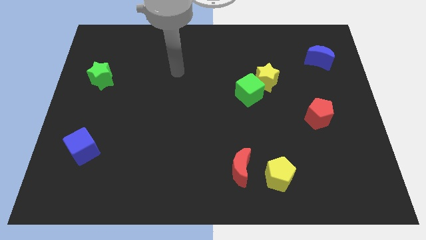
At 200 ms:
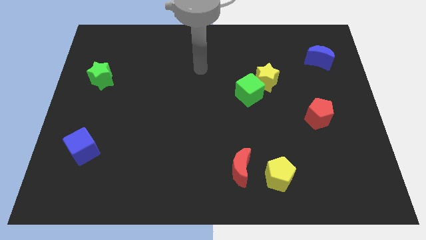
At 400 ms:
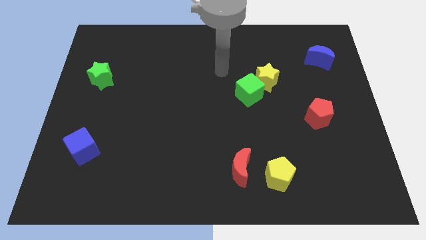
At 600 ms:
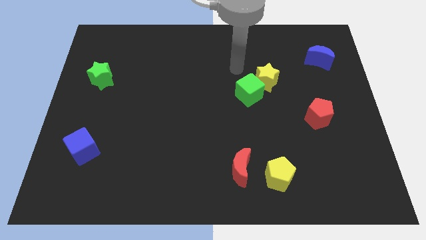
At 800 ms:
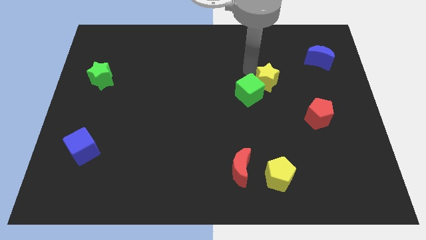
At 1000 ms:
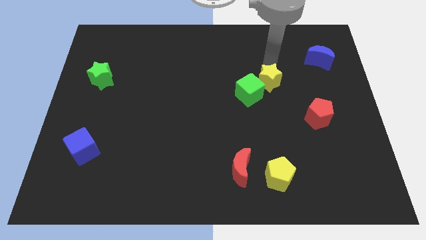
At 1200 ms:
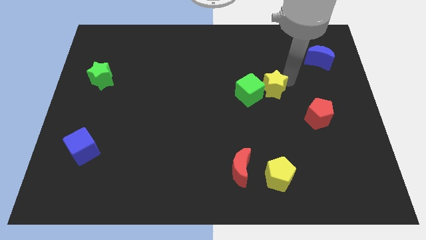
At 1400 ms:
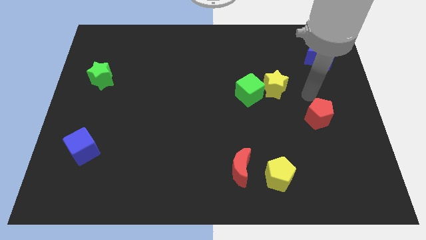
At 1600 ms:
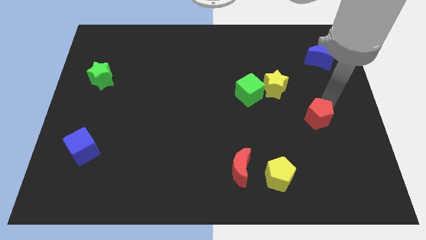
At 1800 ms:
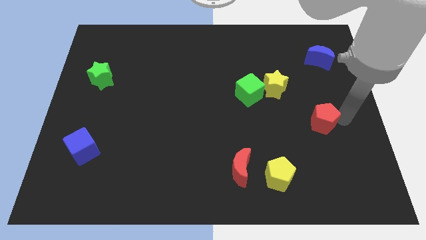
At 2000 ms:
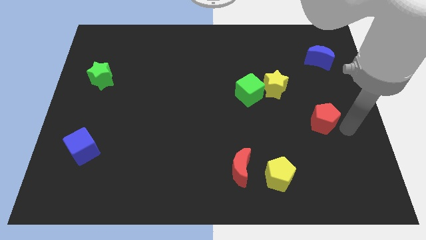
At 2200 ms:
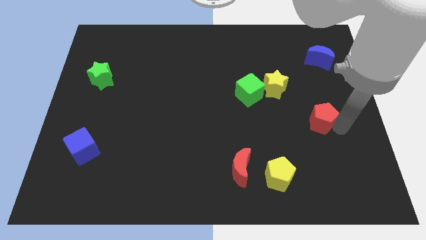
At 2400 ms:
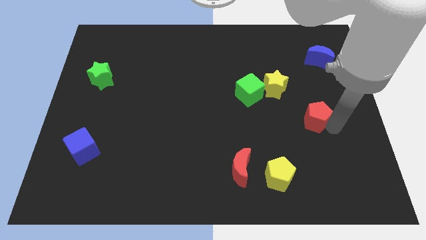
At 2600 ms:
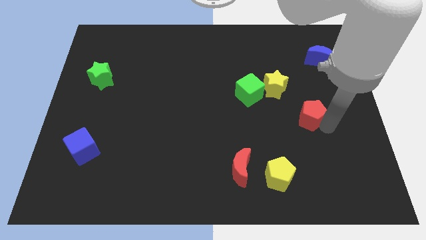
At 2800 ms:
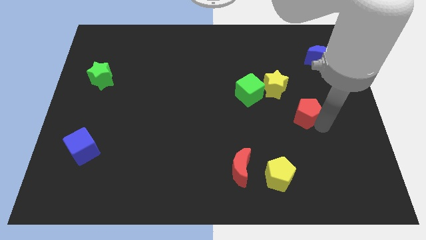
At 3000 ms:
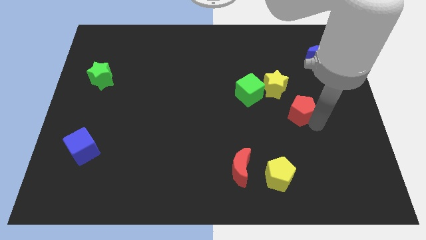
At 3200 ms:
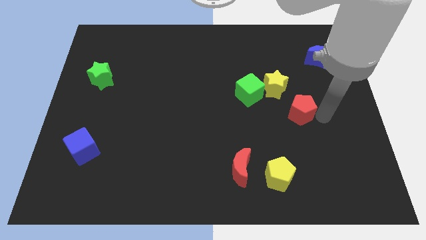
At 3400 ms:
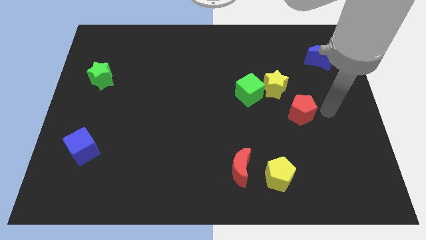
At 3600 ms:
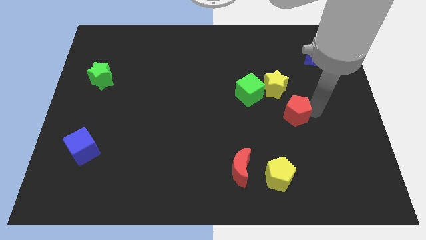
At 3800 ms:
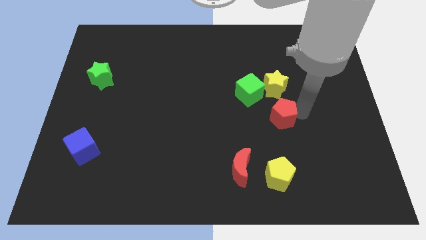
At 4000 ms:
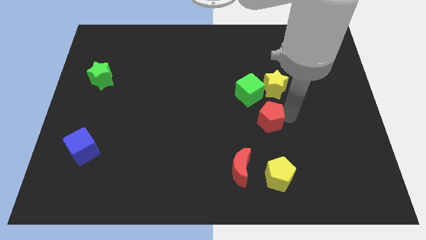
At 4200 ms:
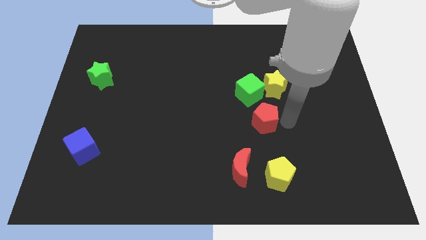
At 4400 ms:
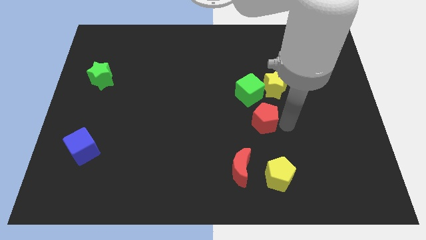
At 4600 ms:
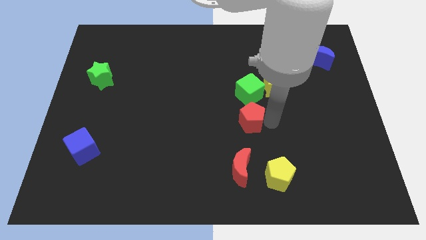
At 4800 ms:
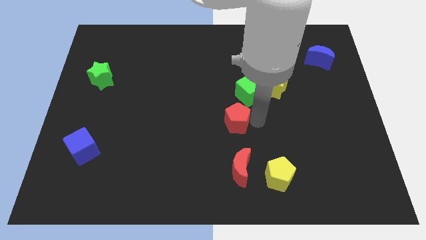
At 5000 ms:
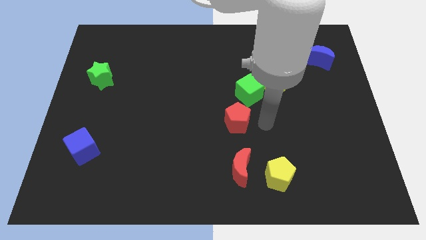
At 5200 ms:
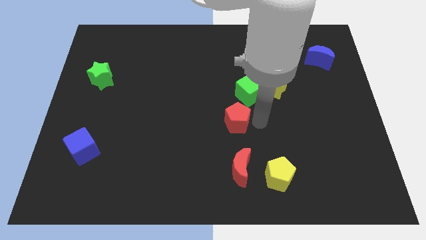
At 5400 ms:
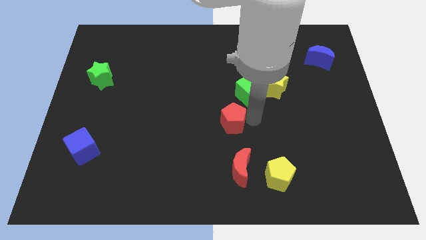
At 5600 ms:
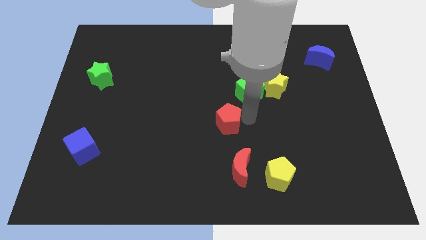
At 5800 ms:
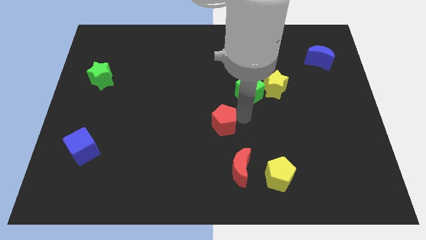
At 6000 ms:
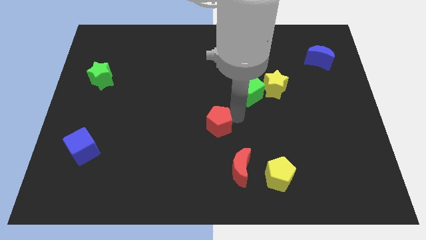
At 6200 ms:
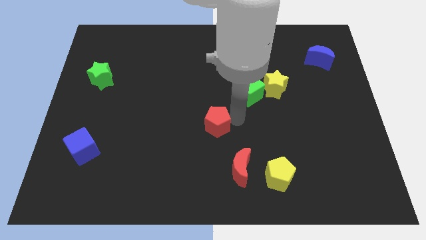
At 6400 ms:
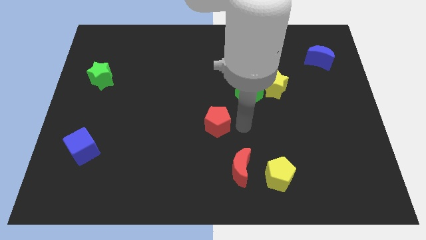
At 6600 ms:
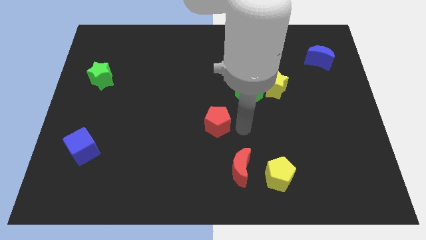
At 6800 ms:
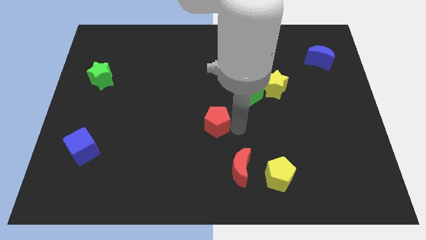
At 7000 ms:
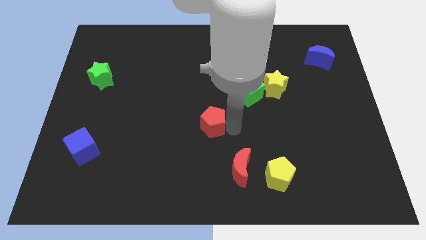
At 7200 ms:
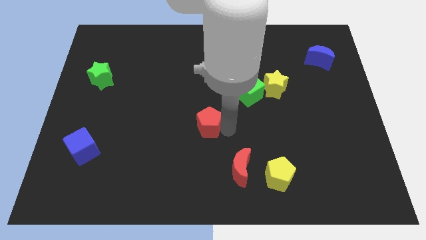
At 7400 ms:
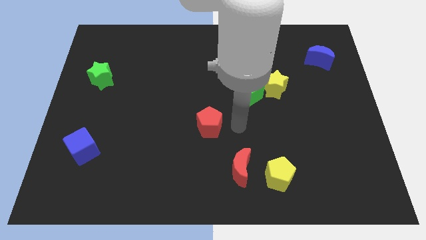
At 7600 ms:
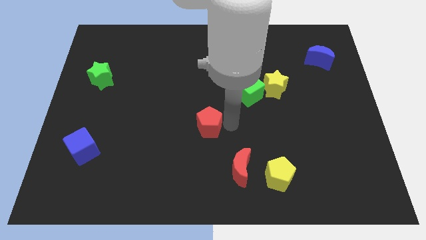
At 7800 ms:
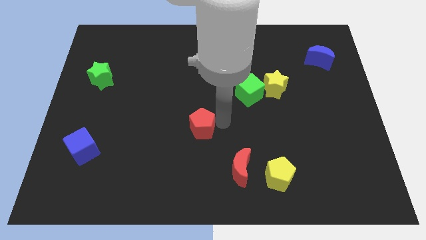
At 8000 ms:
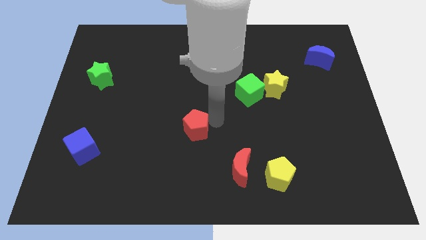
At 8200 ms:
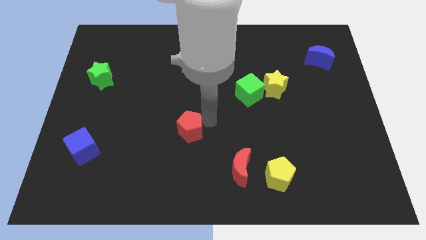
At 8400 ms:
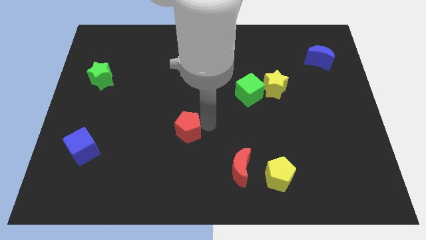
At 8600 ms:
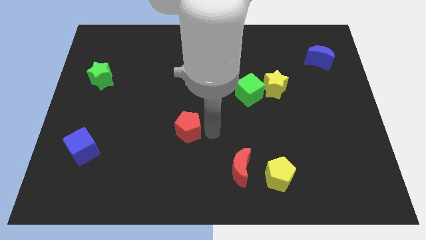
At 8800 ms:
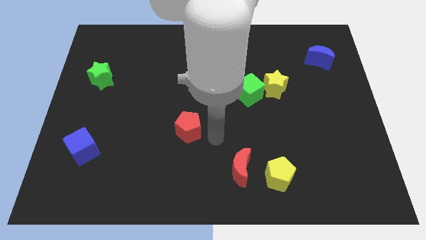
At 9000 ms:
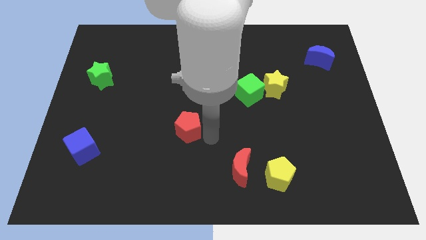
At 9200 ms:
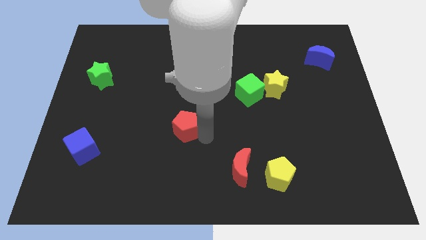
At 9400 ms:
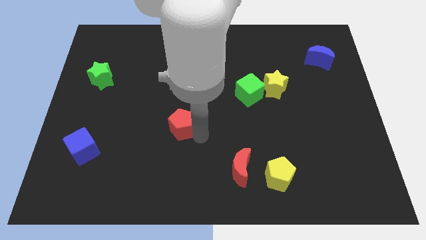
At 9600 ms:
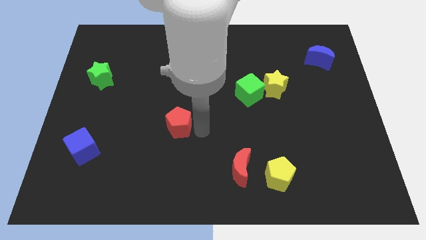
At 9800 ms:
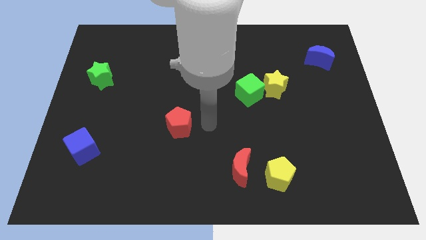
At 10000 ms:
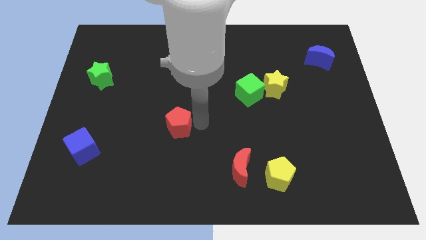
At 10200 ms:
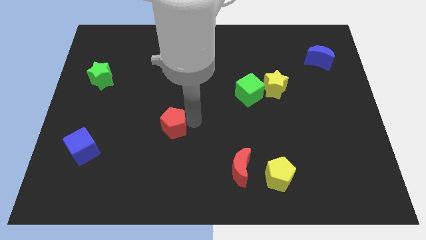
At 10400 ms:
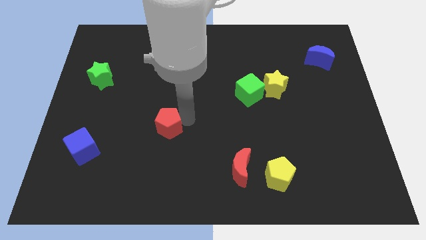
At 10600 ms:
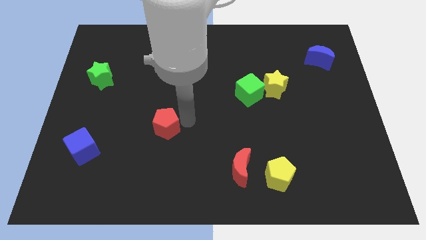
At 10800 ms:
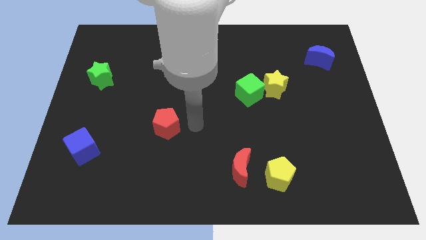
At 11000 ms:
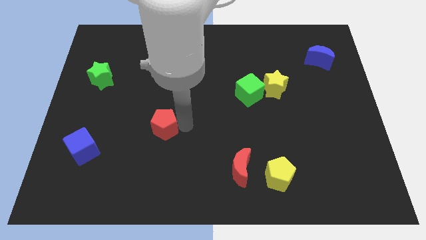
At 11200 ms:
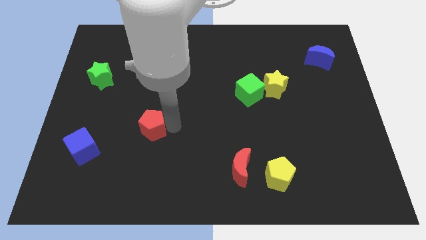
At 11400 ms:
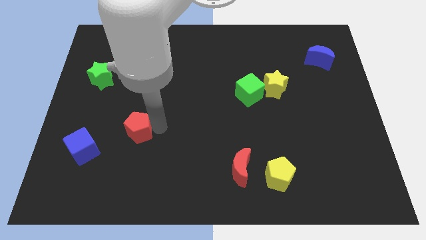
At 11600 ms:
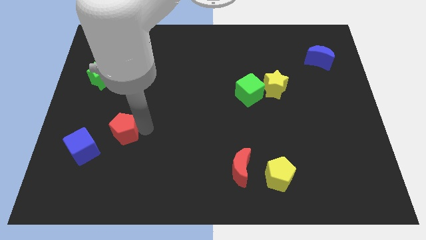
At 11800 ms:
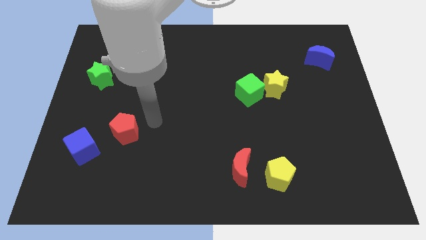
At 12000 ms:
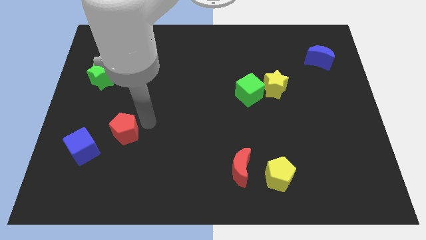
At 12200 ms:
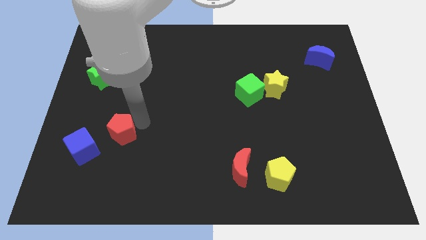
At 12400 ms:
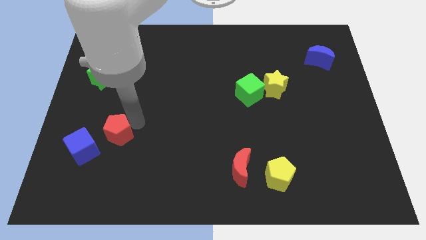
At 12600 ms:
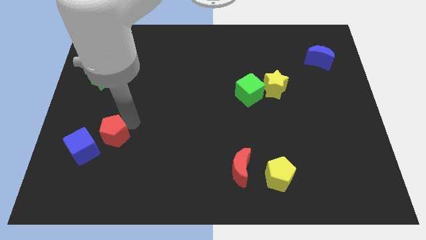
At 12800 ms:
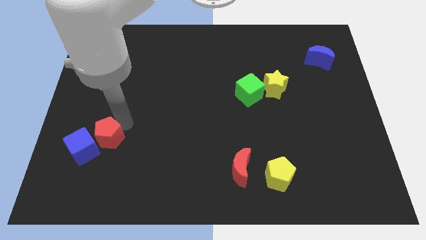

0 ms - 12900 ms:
push the red pentagon to the blue cube

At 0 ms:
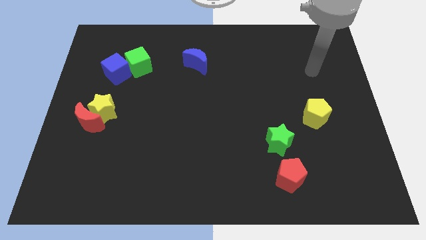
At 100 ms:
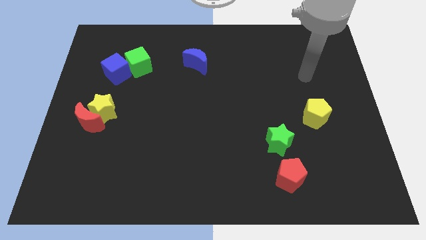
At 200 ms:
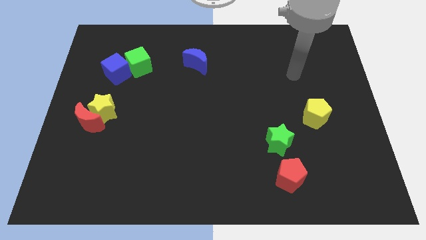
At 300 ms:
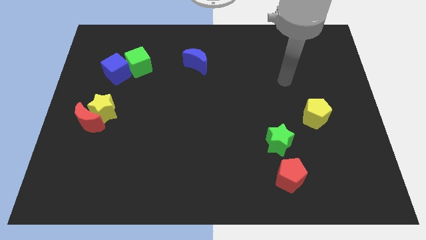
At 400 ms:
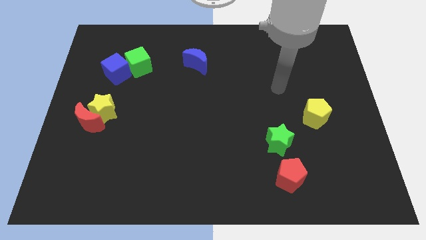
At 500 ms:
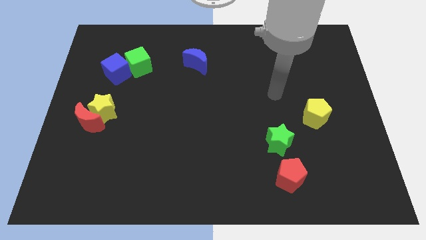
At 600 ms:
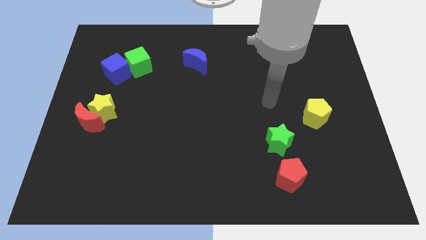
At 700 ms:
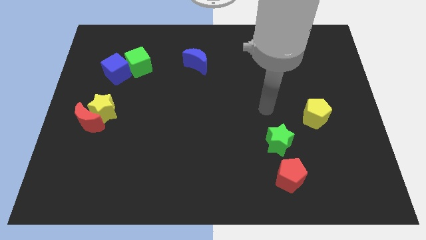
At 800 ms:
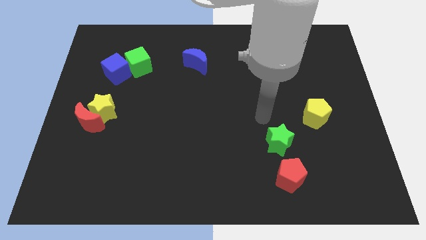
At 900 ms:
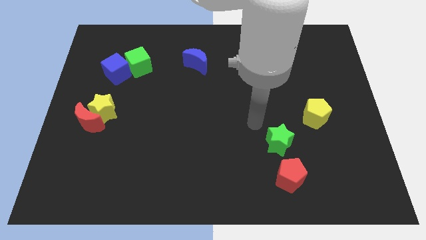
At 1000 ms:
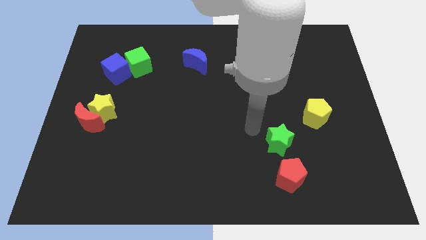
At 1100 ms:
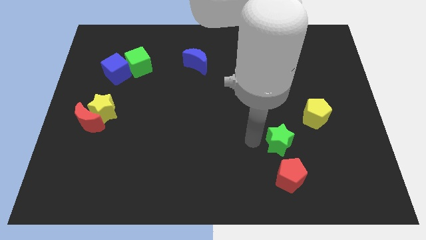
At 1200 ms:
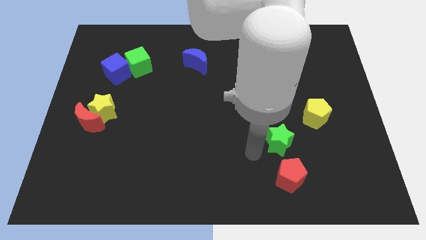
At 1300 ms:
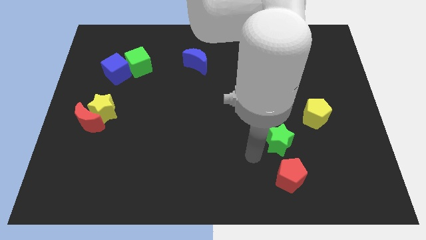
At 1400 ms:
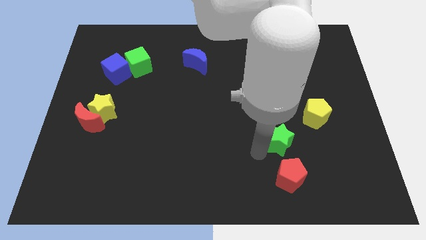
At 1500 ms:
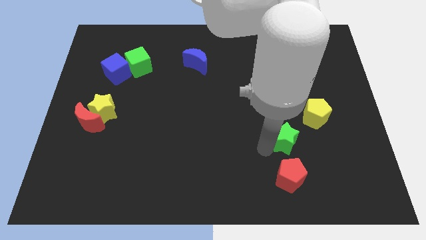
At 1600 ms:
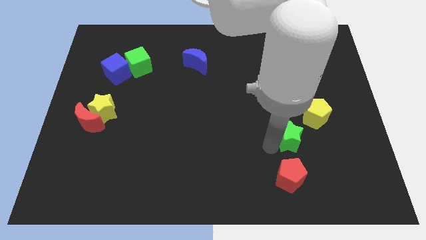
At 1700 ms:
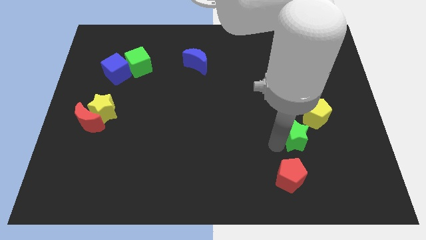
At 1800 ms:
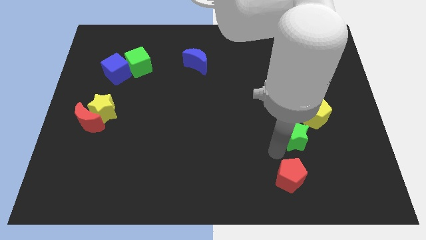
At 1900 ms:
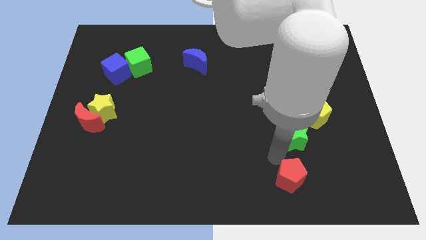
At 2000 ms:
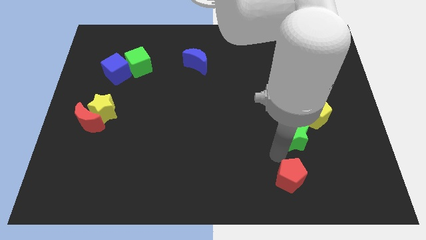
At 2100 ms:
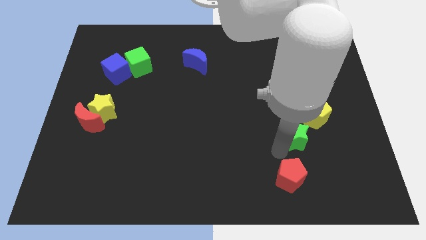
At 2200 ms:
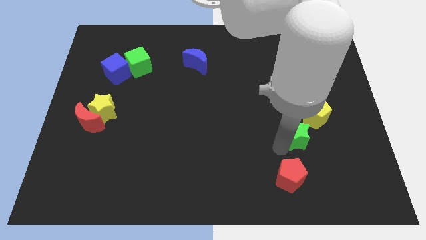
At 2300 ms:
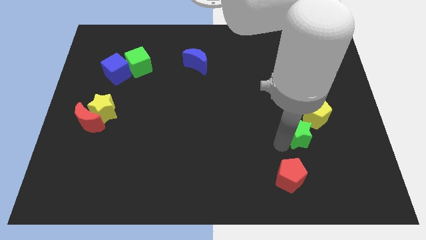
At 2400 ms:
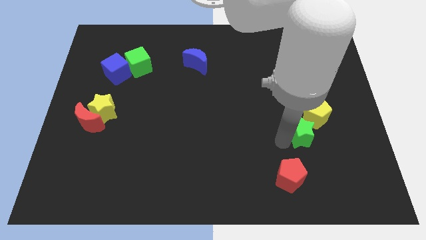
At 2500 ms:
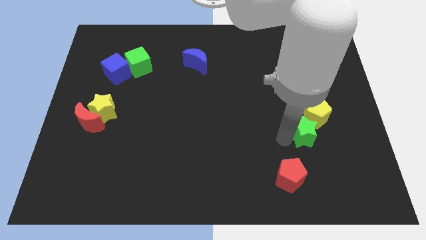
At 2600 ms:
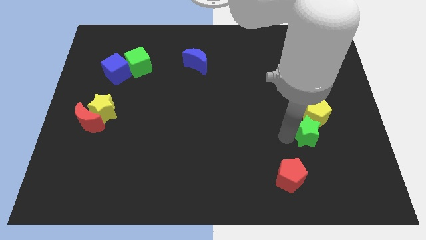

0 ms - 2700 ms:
push the green star towards the yellow pentagon
